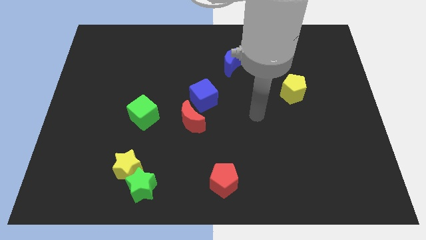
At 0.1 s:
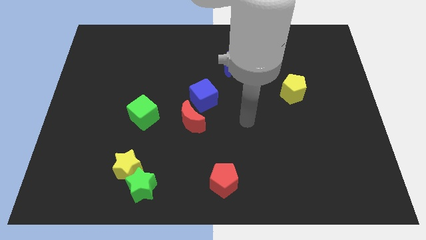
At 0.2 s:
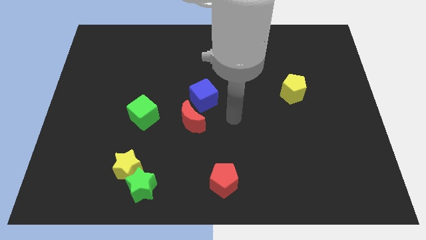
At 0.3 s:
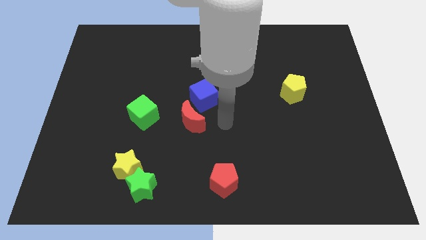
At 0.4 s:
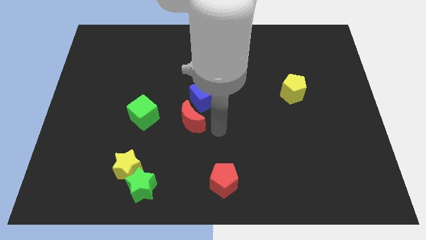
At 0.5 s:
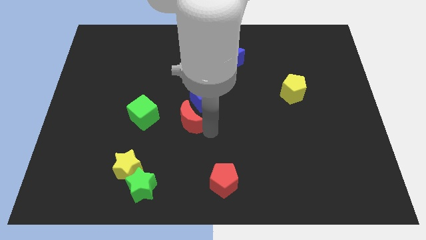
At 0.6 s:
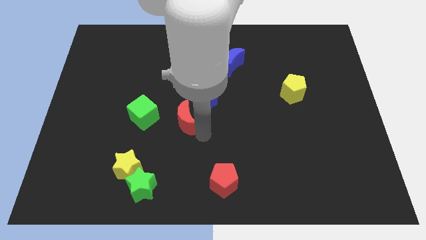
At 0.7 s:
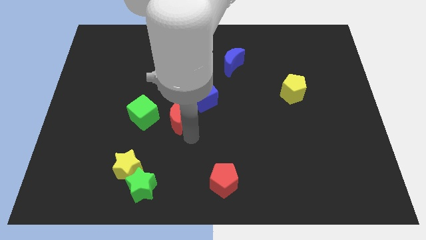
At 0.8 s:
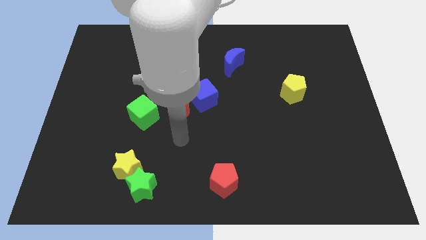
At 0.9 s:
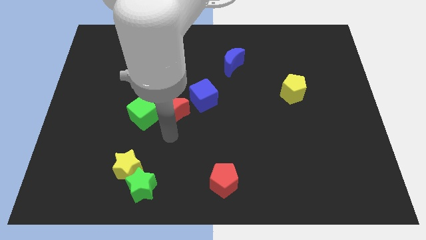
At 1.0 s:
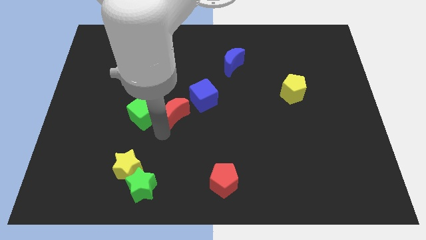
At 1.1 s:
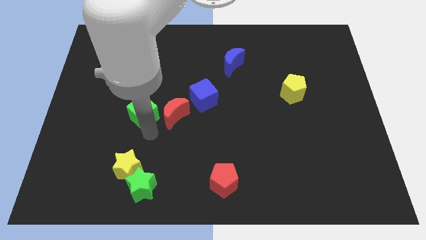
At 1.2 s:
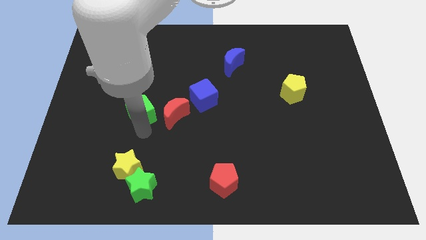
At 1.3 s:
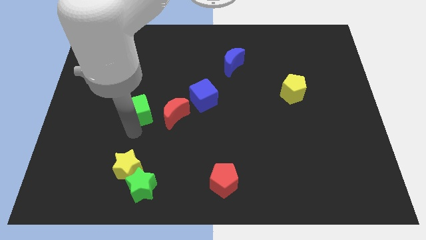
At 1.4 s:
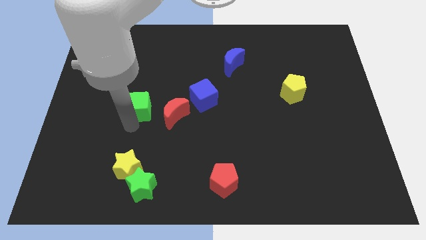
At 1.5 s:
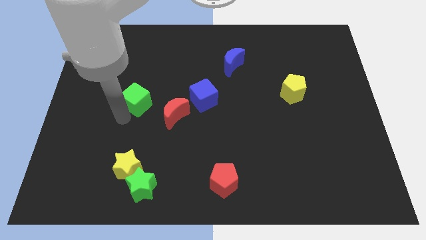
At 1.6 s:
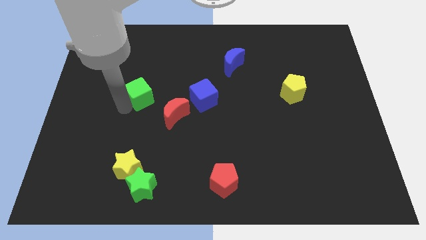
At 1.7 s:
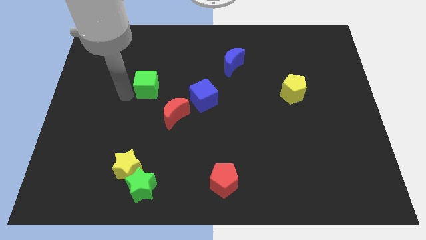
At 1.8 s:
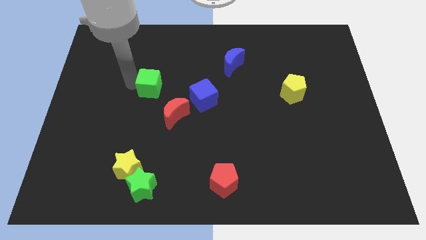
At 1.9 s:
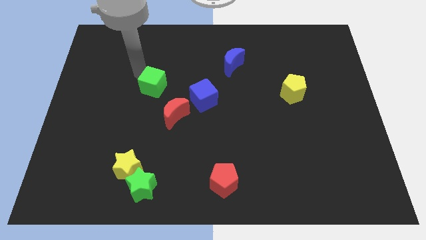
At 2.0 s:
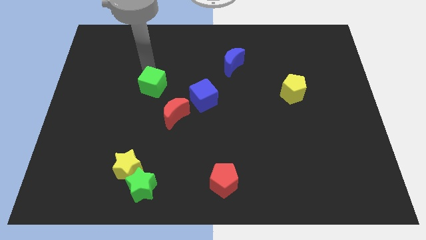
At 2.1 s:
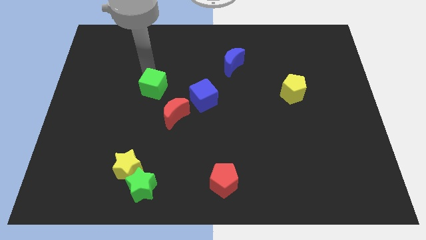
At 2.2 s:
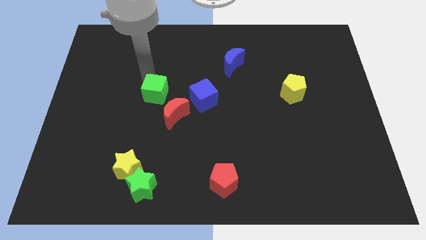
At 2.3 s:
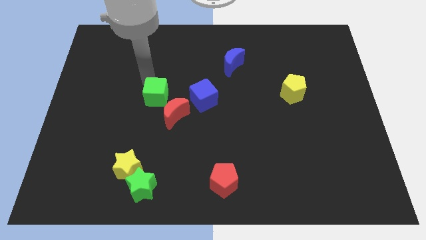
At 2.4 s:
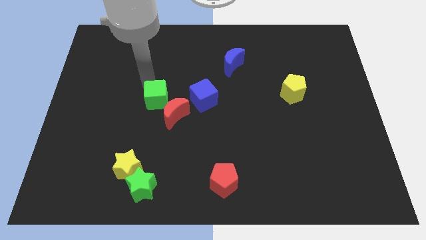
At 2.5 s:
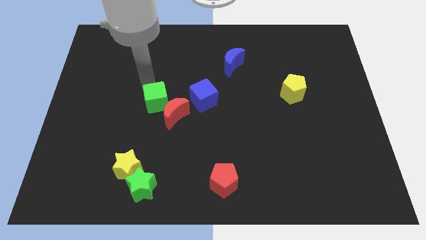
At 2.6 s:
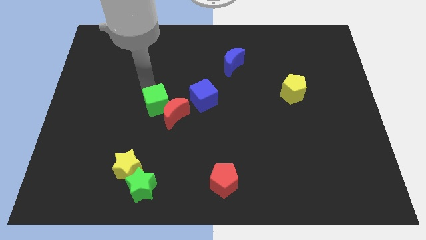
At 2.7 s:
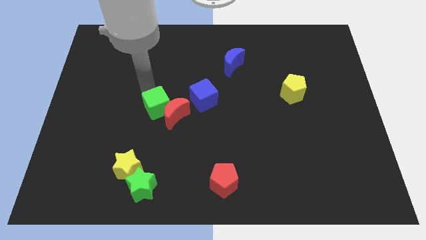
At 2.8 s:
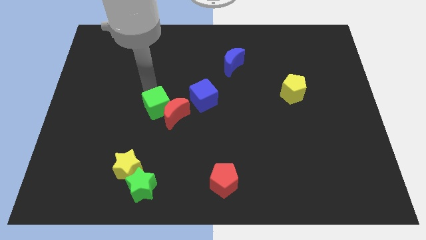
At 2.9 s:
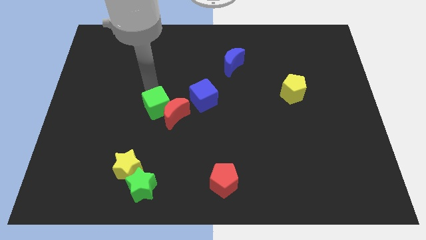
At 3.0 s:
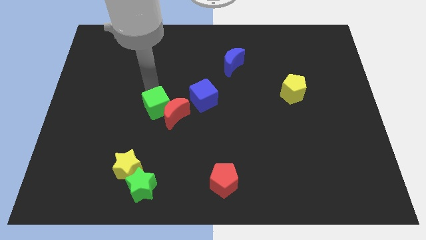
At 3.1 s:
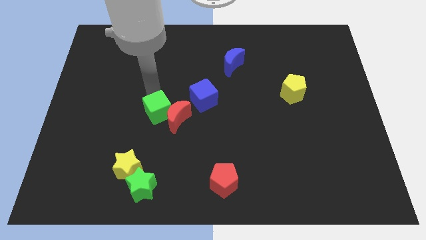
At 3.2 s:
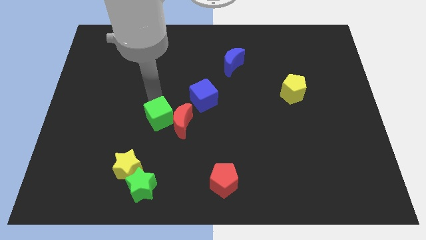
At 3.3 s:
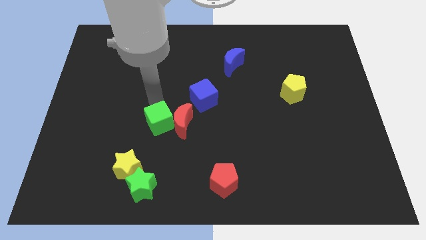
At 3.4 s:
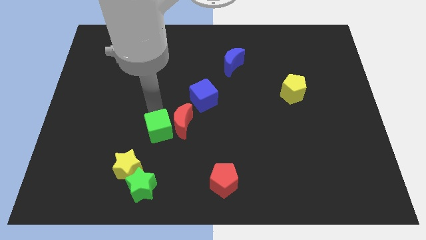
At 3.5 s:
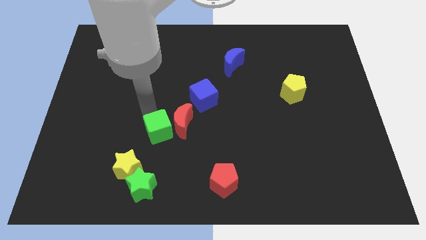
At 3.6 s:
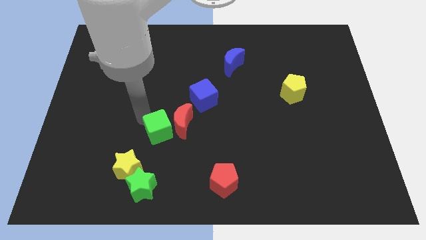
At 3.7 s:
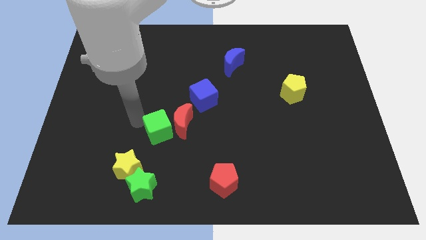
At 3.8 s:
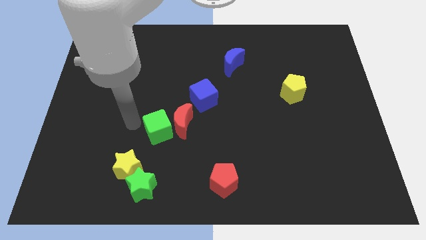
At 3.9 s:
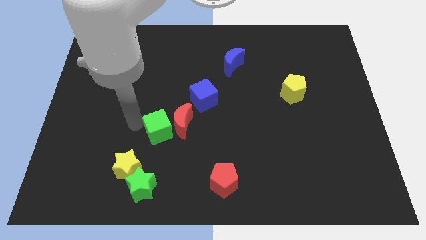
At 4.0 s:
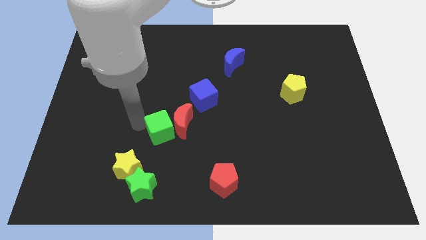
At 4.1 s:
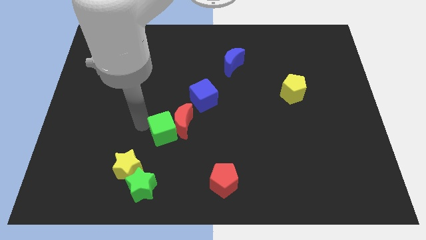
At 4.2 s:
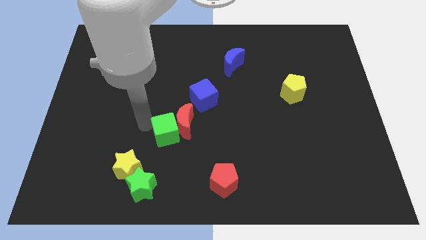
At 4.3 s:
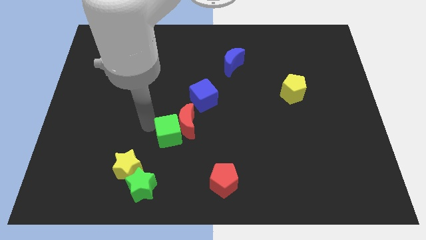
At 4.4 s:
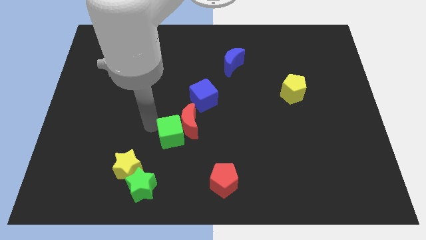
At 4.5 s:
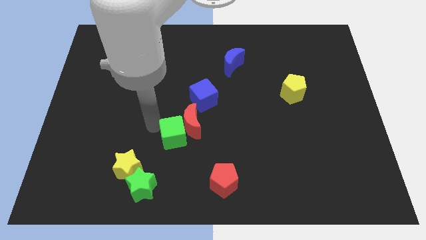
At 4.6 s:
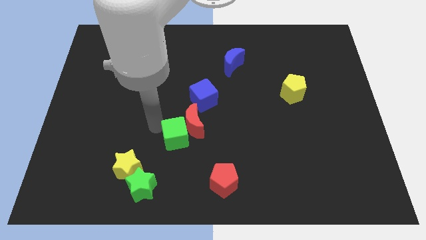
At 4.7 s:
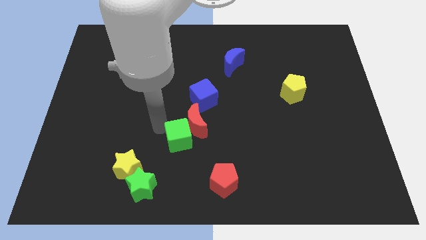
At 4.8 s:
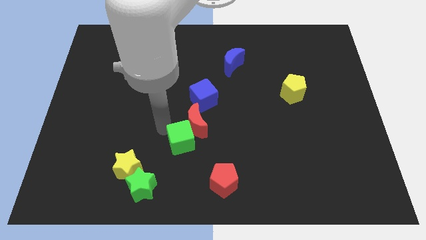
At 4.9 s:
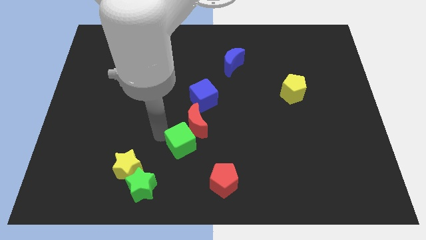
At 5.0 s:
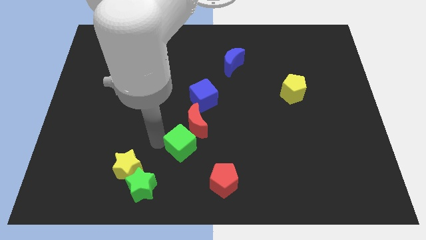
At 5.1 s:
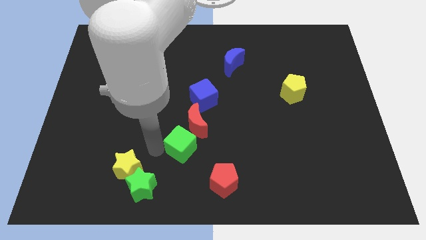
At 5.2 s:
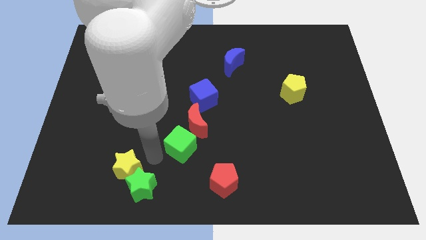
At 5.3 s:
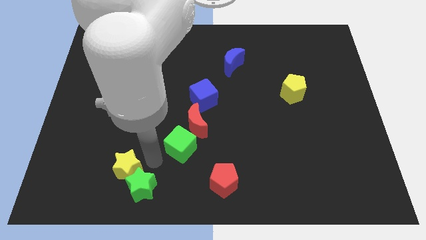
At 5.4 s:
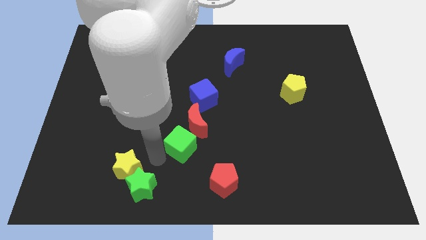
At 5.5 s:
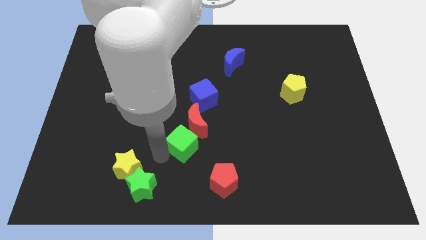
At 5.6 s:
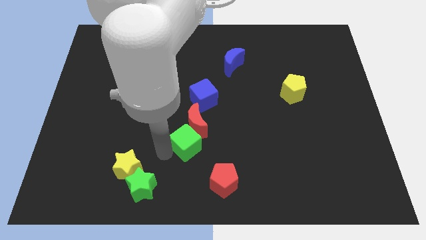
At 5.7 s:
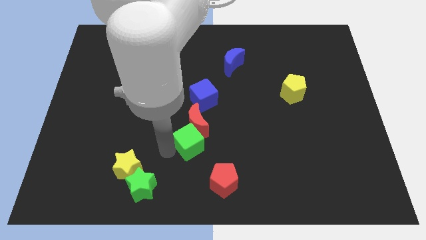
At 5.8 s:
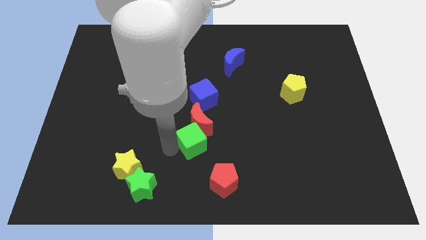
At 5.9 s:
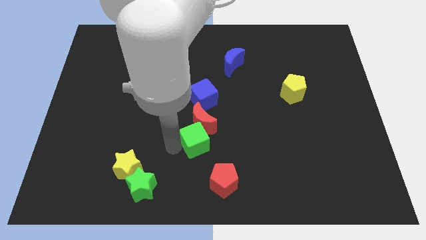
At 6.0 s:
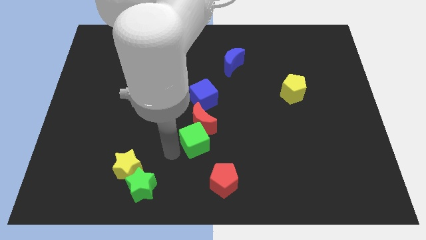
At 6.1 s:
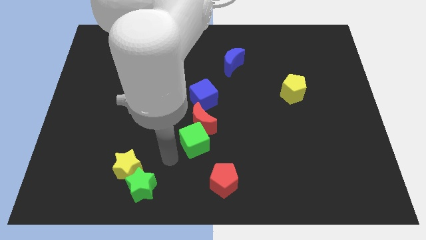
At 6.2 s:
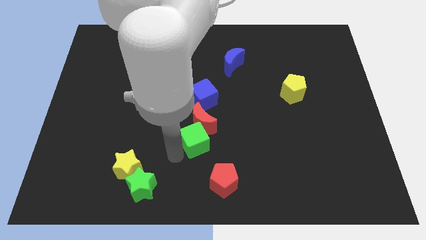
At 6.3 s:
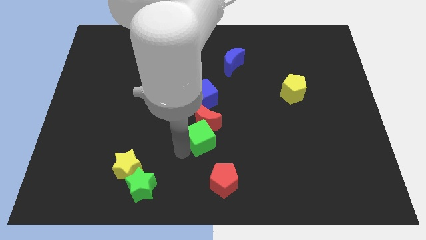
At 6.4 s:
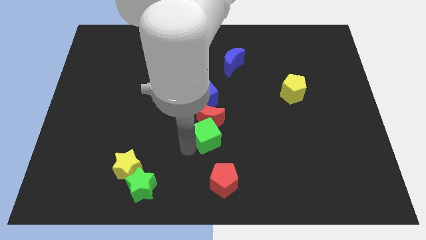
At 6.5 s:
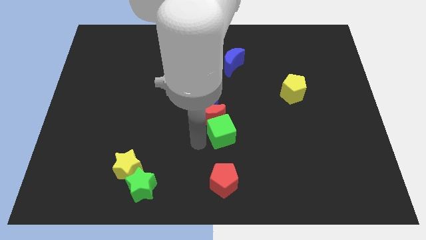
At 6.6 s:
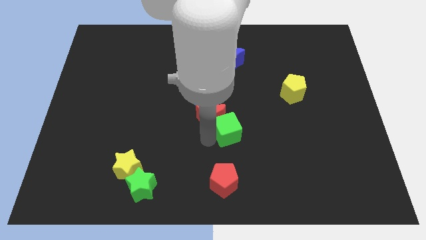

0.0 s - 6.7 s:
slide the green cube just right of the red moon
